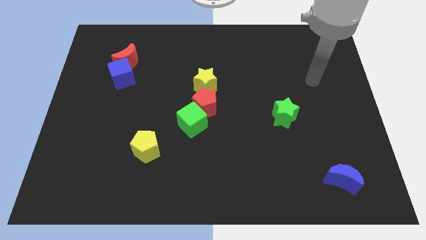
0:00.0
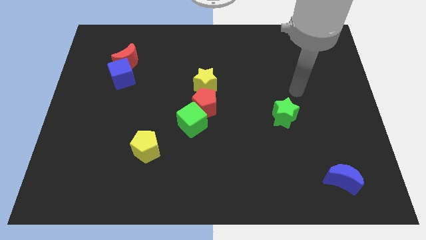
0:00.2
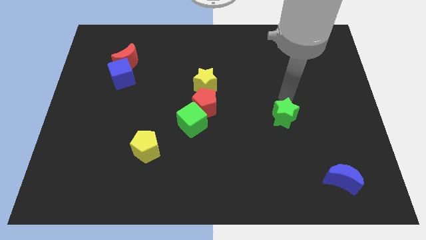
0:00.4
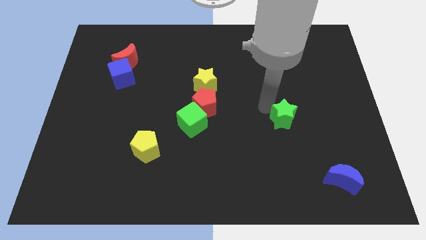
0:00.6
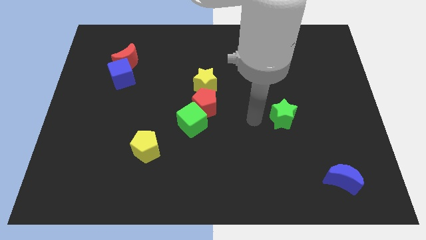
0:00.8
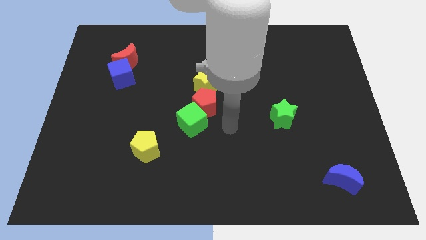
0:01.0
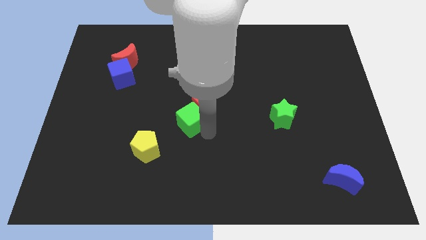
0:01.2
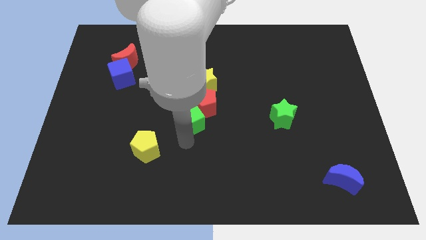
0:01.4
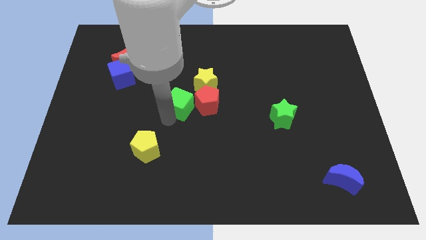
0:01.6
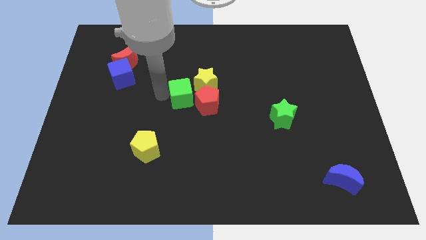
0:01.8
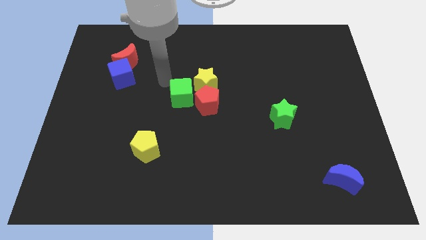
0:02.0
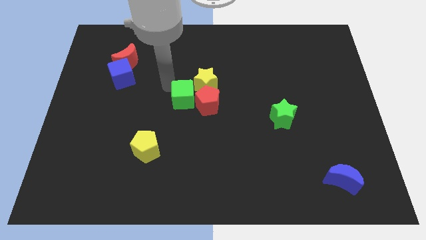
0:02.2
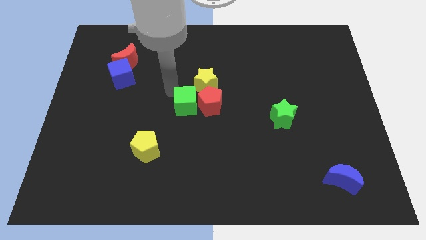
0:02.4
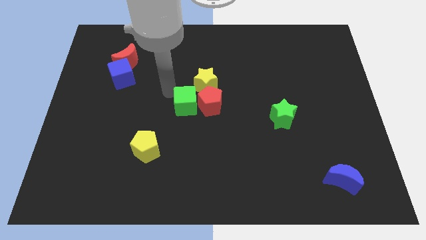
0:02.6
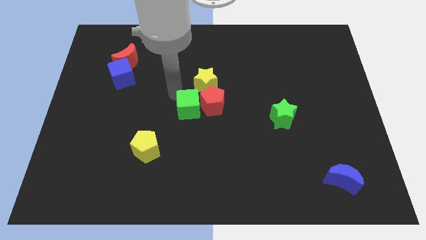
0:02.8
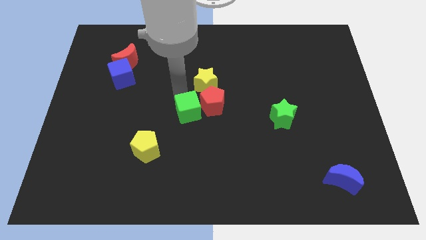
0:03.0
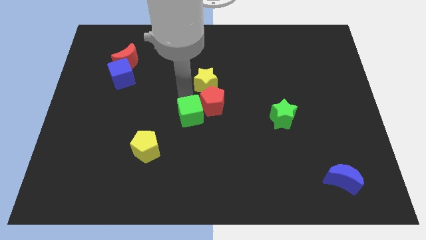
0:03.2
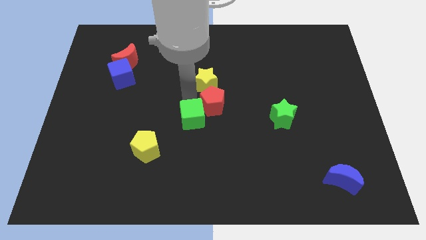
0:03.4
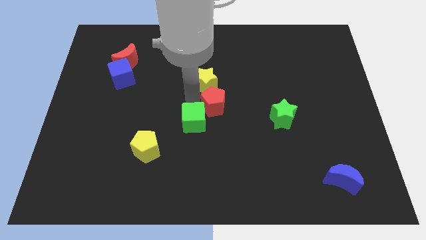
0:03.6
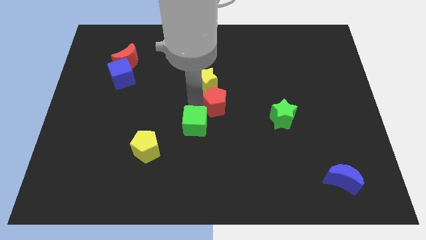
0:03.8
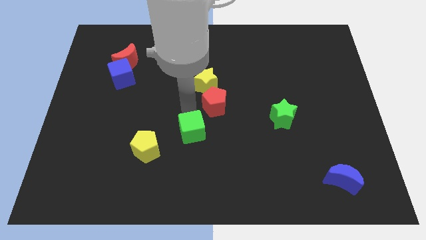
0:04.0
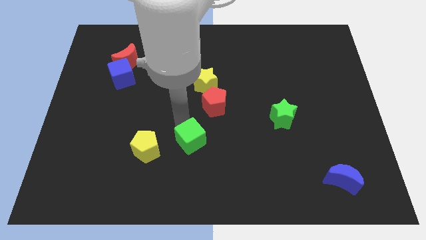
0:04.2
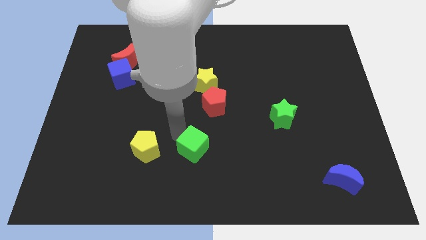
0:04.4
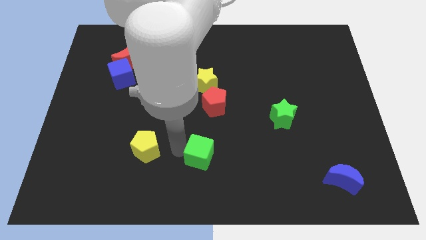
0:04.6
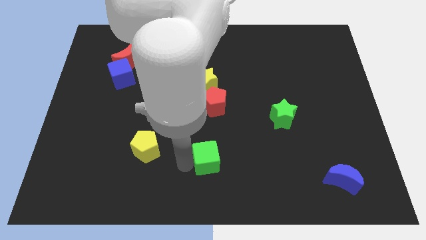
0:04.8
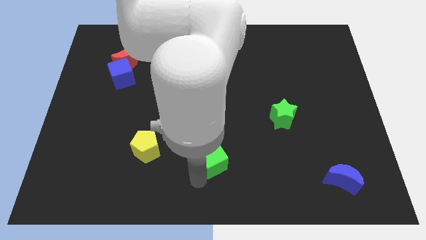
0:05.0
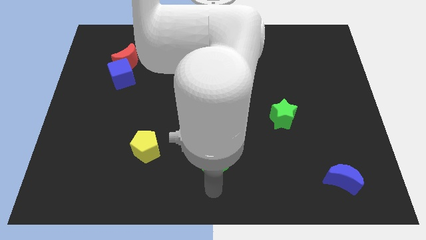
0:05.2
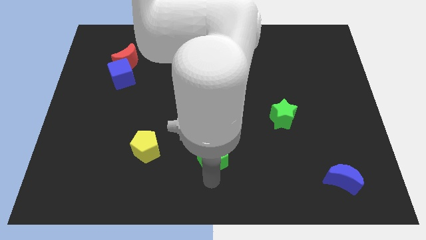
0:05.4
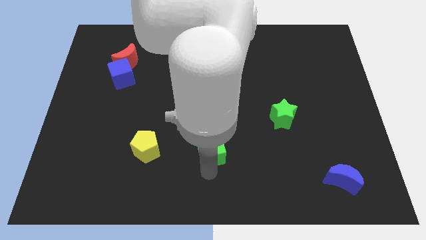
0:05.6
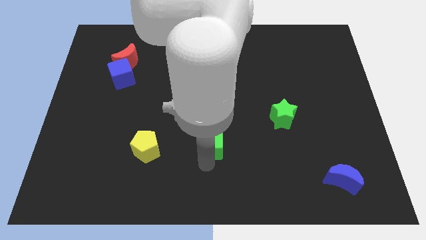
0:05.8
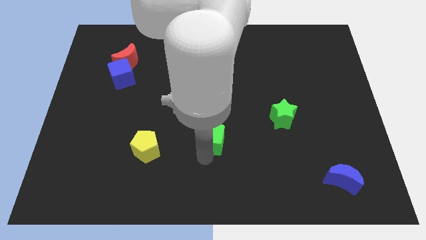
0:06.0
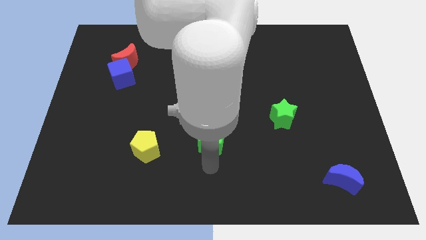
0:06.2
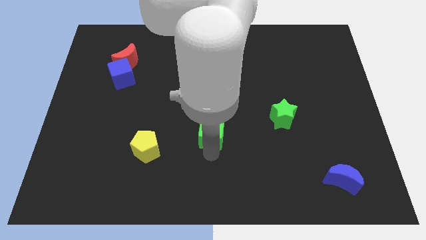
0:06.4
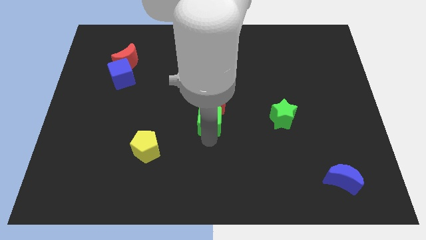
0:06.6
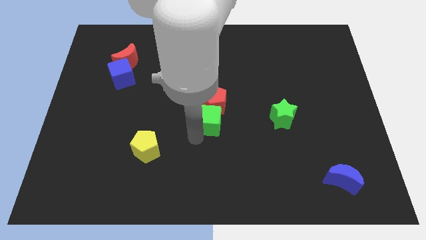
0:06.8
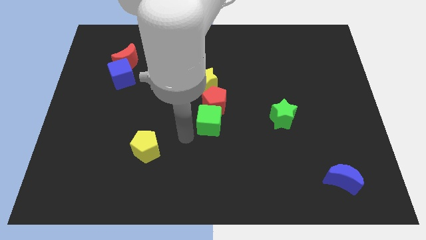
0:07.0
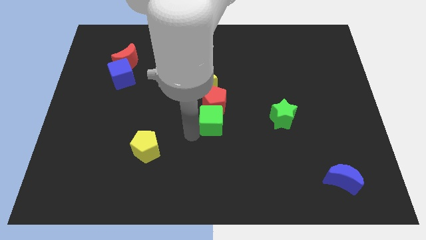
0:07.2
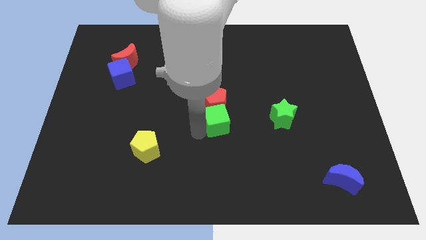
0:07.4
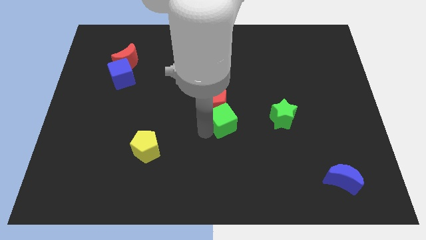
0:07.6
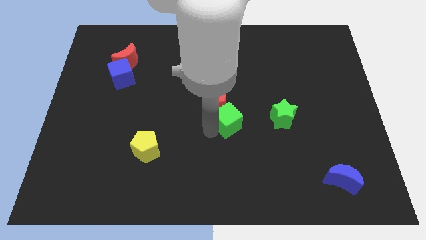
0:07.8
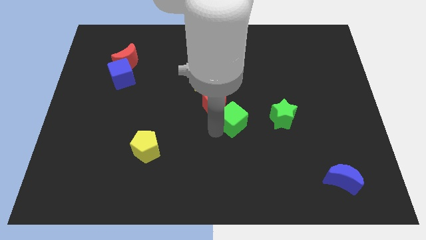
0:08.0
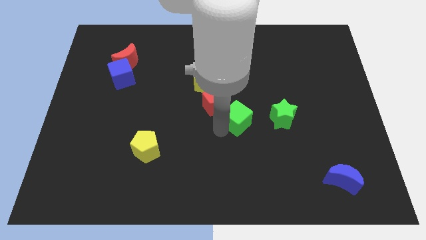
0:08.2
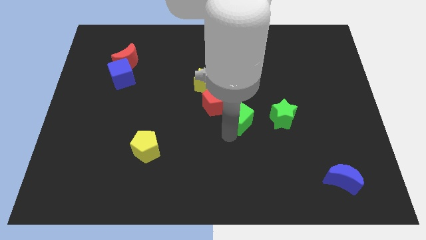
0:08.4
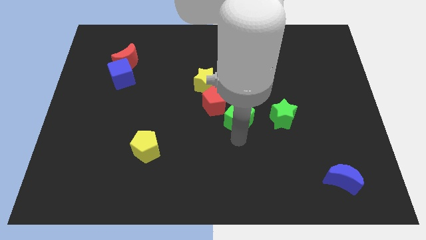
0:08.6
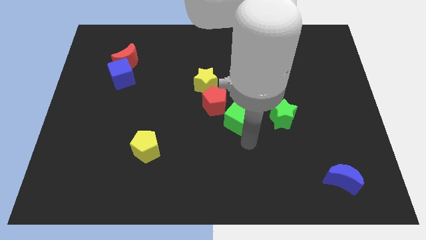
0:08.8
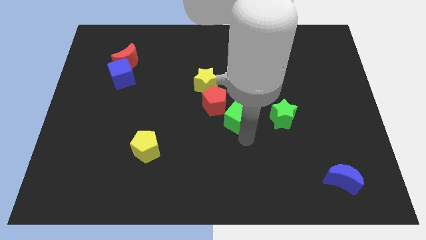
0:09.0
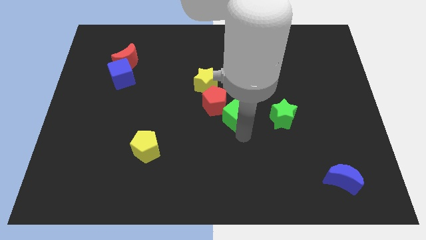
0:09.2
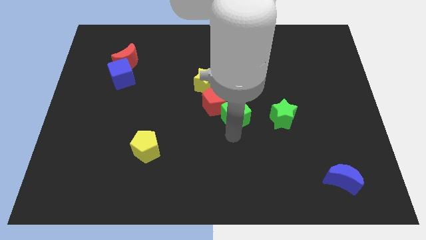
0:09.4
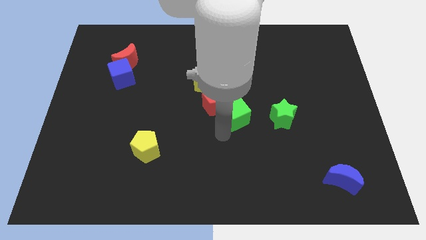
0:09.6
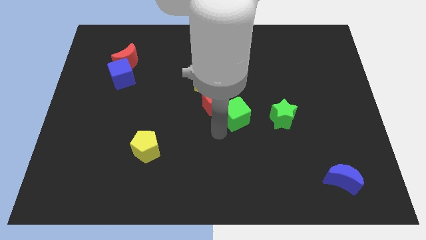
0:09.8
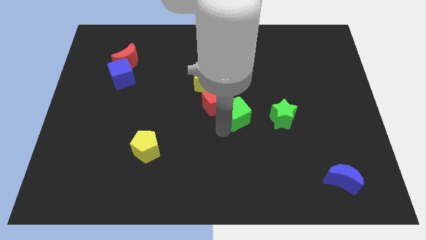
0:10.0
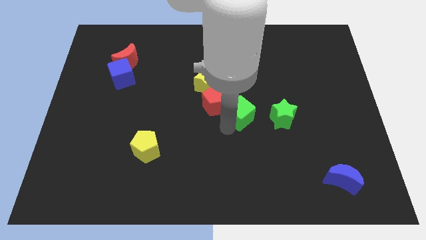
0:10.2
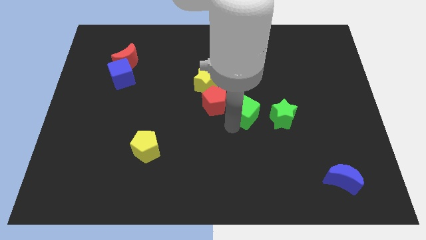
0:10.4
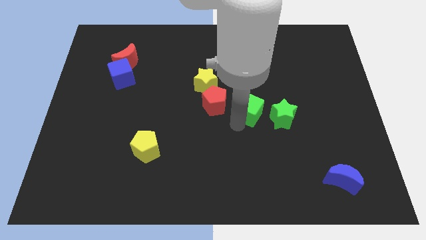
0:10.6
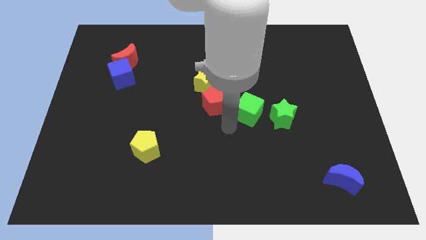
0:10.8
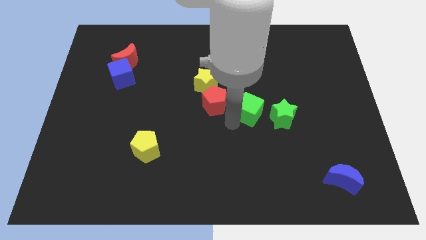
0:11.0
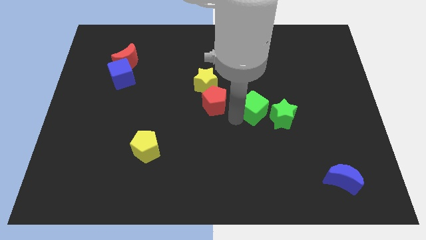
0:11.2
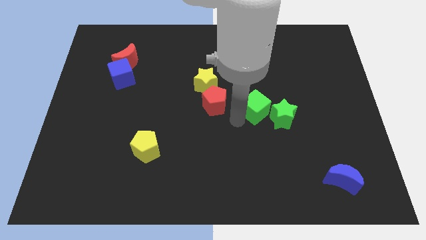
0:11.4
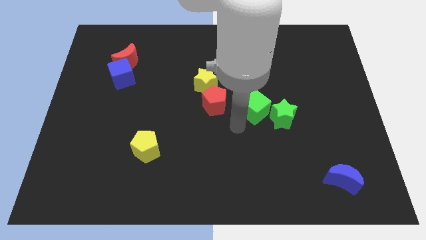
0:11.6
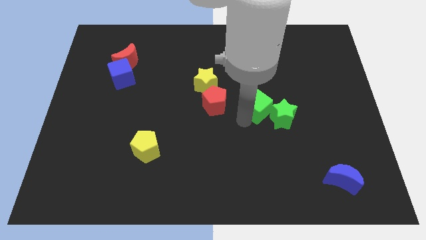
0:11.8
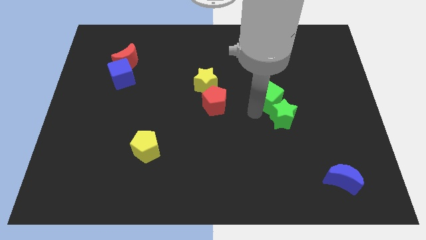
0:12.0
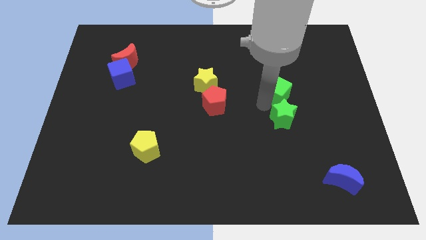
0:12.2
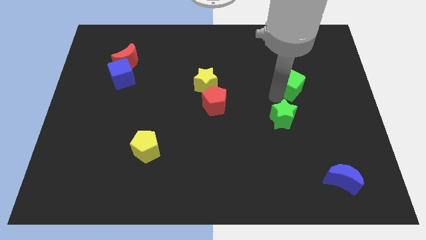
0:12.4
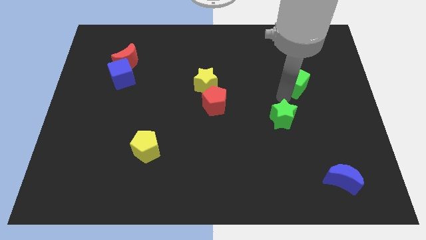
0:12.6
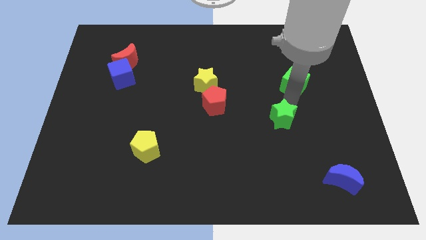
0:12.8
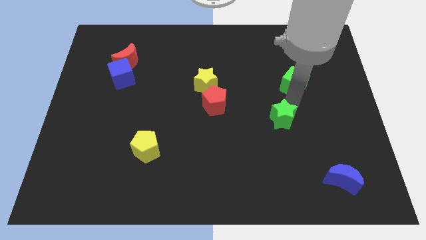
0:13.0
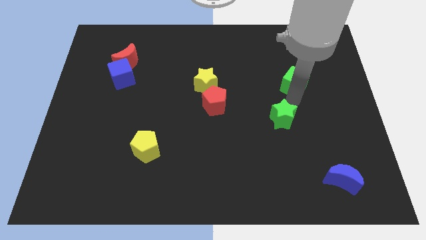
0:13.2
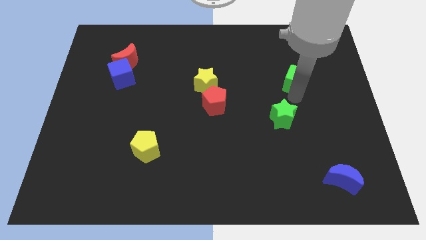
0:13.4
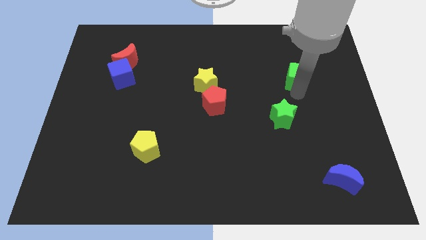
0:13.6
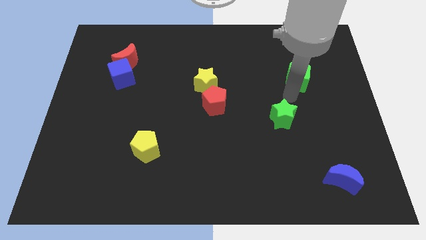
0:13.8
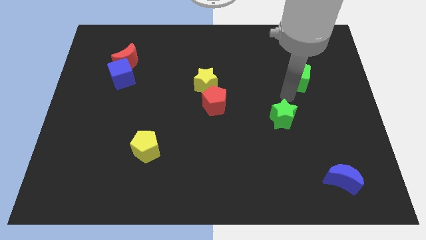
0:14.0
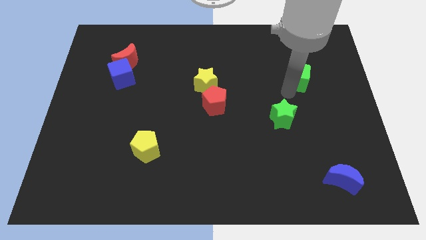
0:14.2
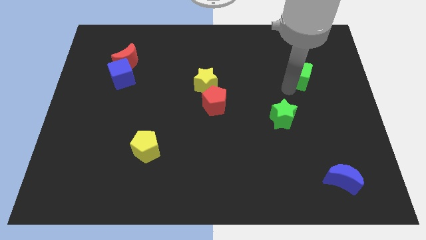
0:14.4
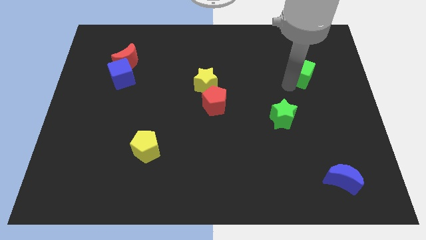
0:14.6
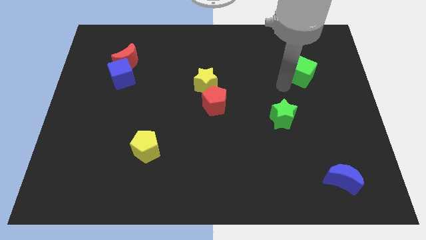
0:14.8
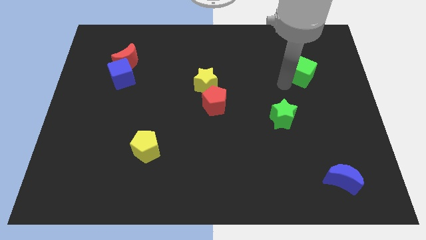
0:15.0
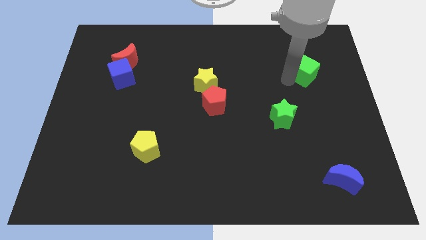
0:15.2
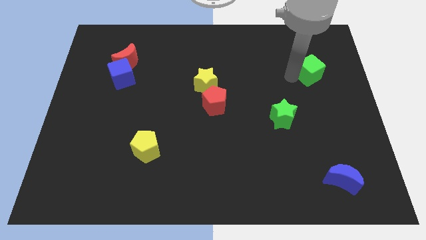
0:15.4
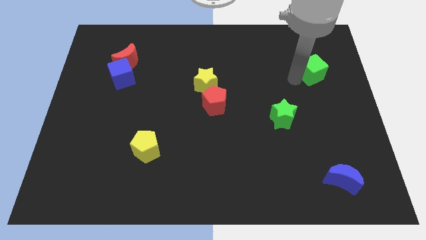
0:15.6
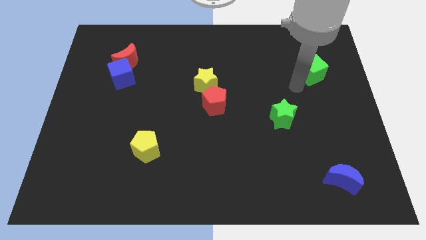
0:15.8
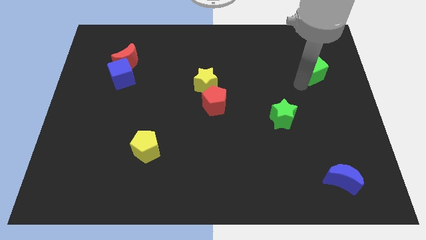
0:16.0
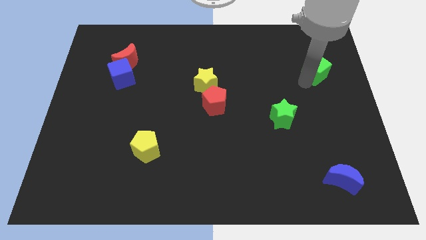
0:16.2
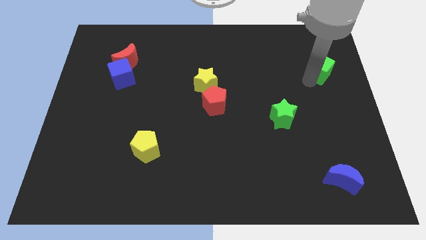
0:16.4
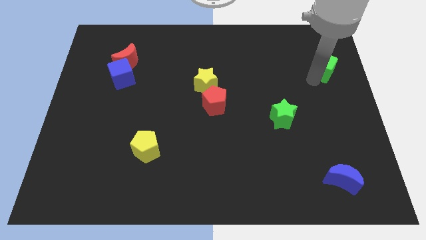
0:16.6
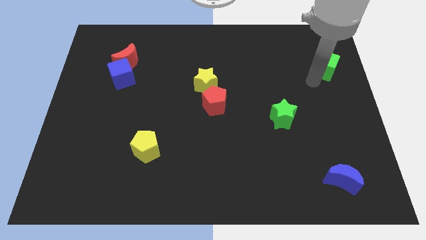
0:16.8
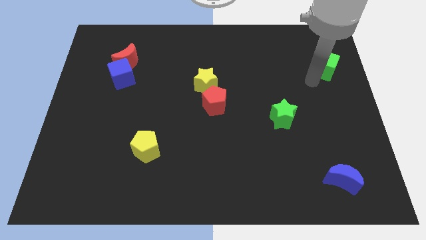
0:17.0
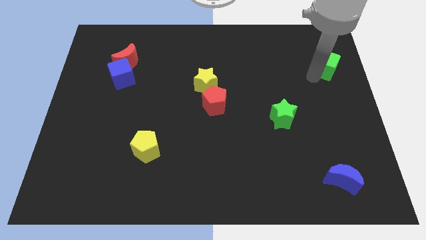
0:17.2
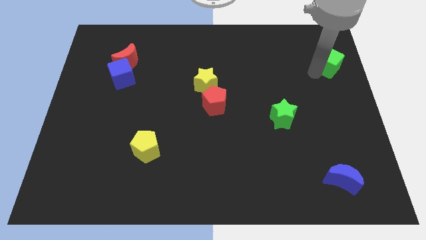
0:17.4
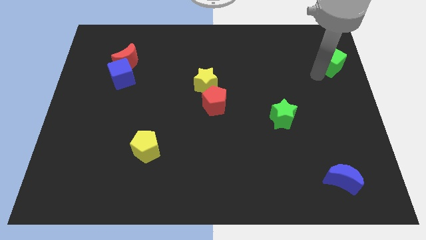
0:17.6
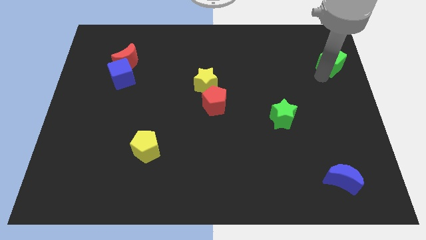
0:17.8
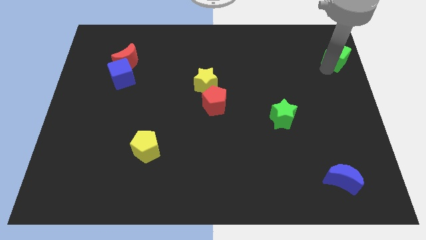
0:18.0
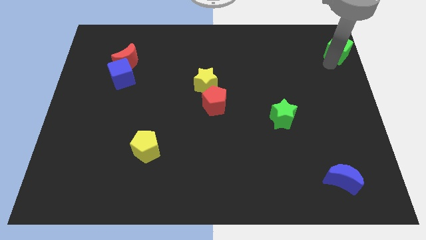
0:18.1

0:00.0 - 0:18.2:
slide the green cube to the top right corner
